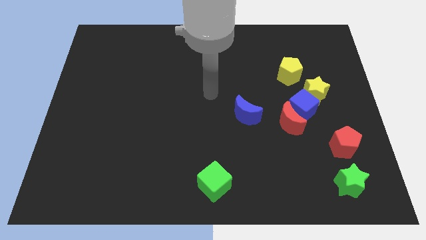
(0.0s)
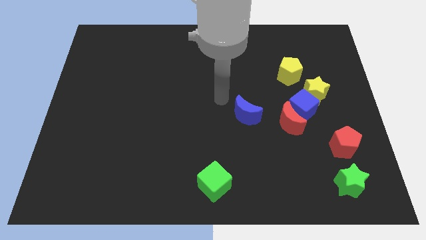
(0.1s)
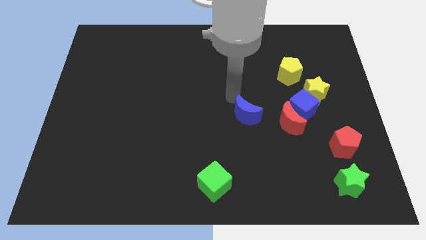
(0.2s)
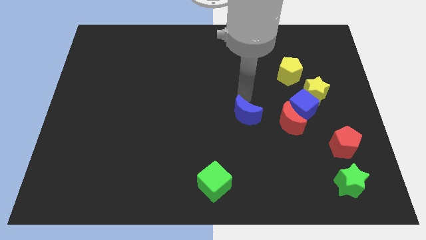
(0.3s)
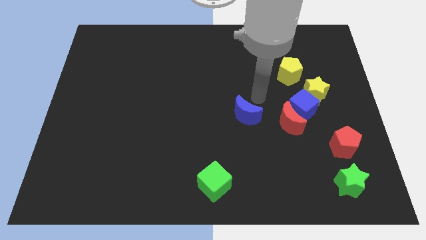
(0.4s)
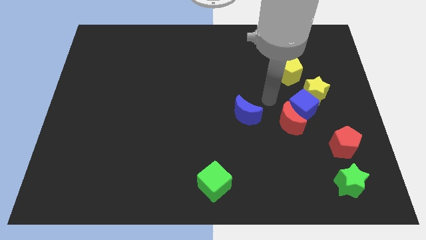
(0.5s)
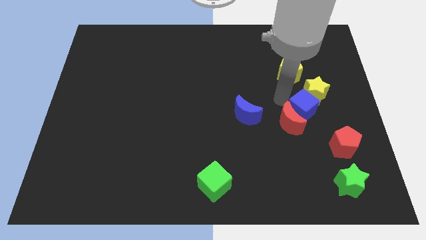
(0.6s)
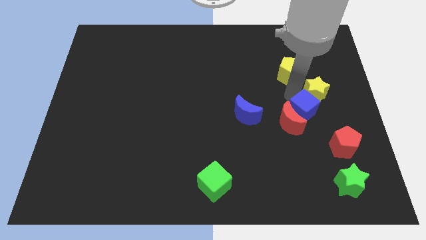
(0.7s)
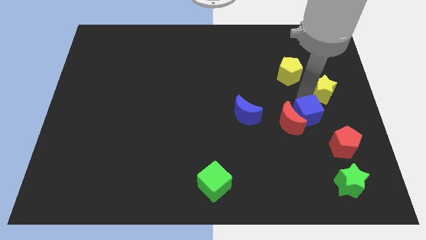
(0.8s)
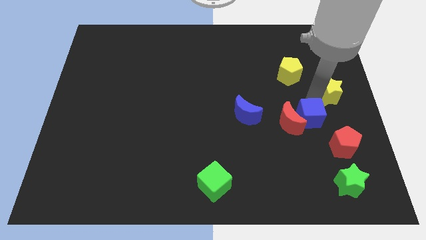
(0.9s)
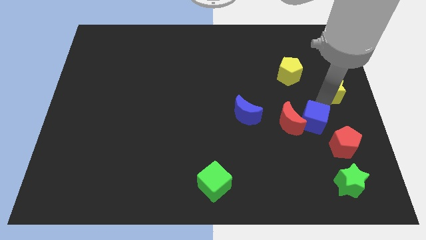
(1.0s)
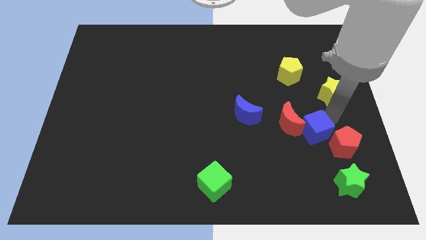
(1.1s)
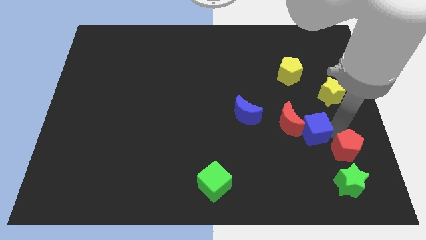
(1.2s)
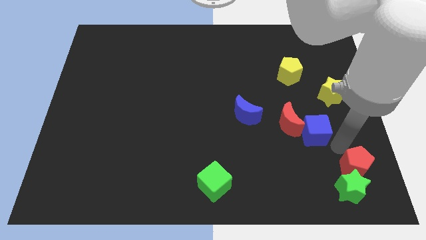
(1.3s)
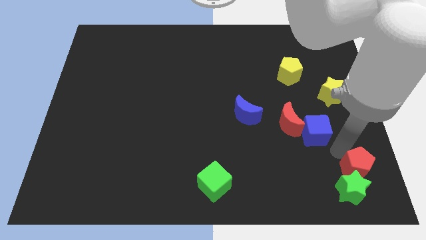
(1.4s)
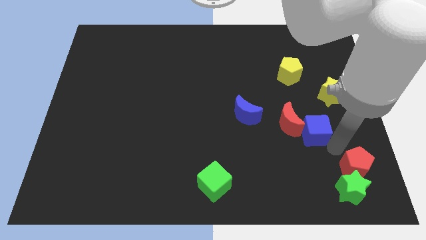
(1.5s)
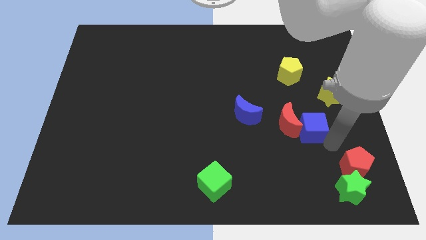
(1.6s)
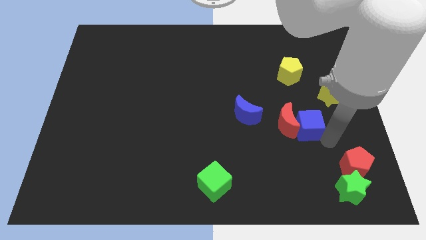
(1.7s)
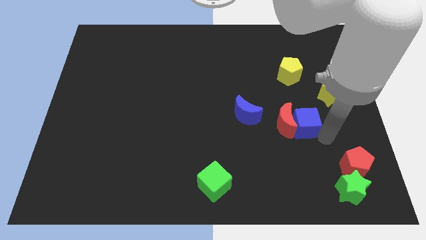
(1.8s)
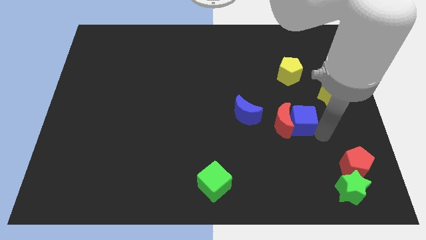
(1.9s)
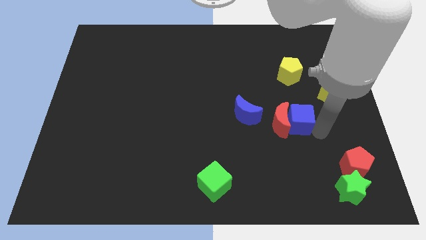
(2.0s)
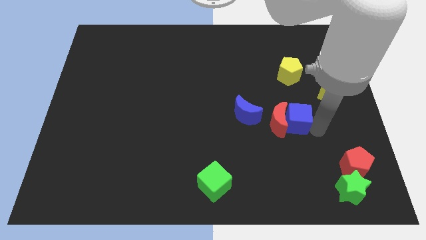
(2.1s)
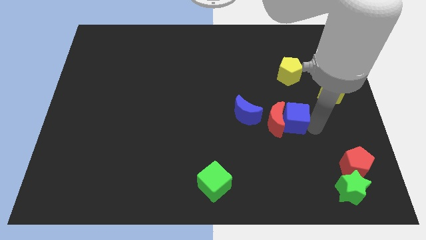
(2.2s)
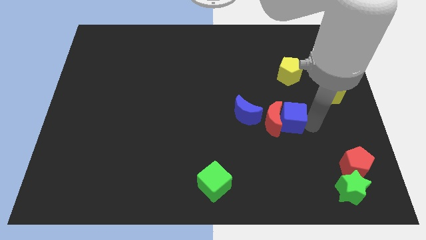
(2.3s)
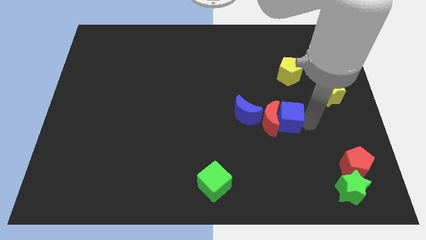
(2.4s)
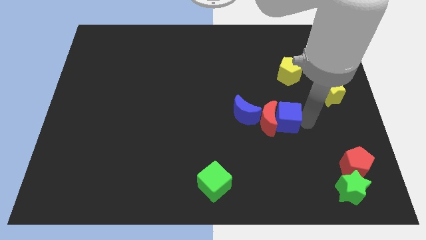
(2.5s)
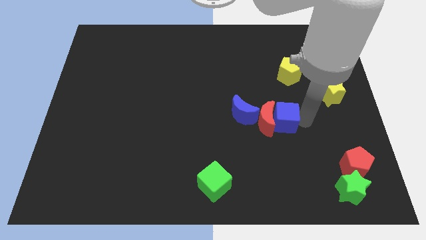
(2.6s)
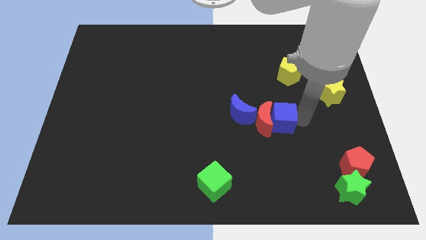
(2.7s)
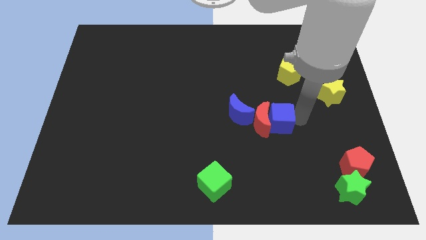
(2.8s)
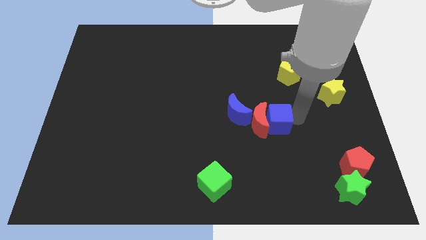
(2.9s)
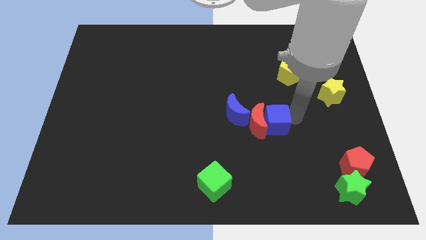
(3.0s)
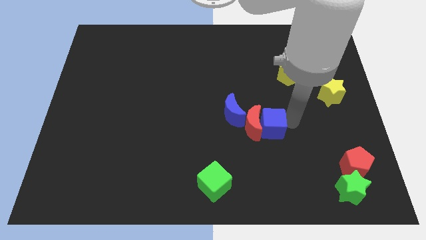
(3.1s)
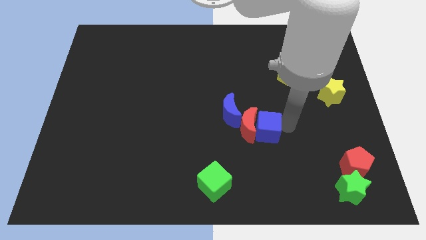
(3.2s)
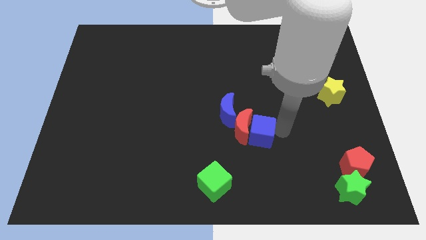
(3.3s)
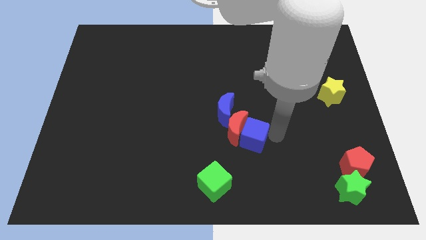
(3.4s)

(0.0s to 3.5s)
move the blue cube away from the red moon and yellow star

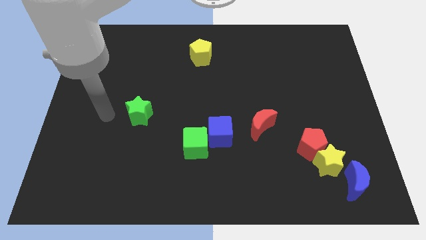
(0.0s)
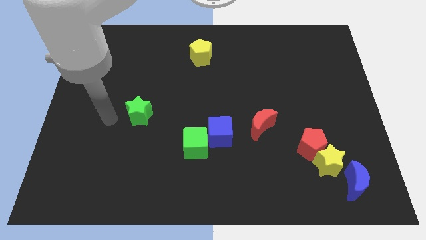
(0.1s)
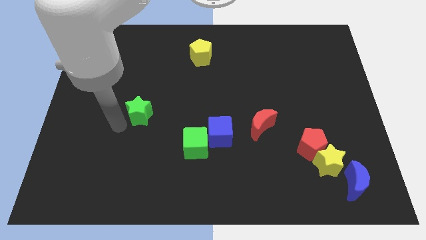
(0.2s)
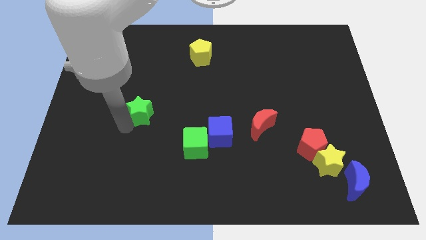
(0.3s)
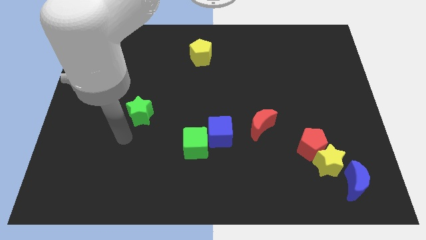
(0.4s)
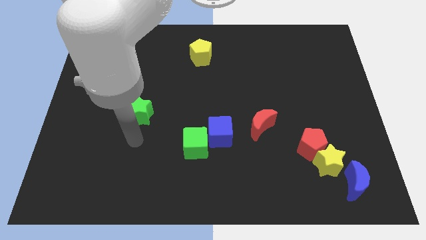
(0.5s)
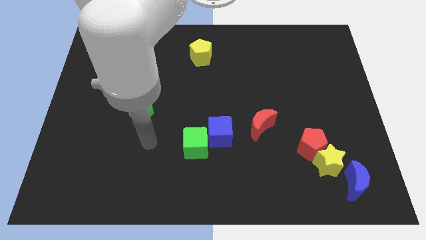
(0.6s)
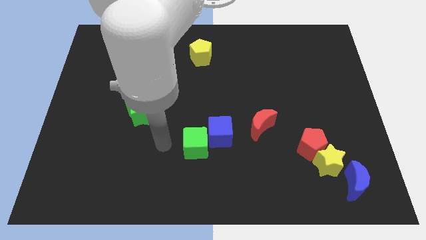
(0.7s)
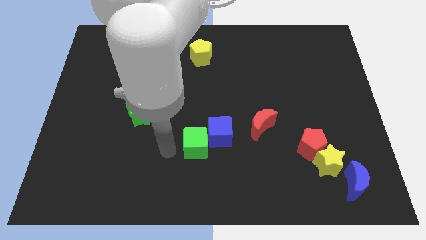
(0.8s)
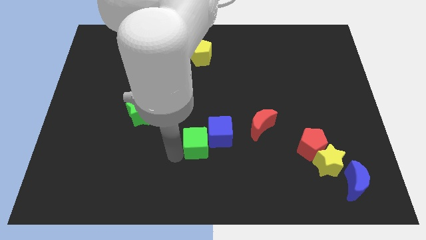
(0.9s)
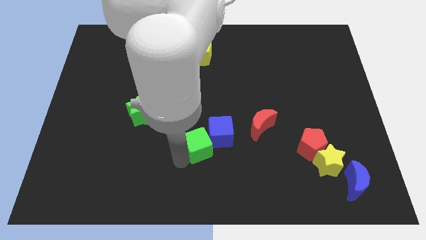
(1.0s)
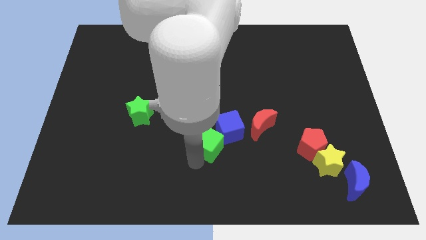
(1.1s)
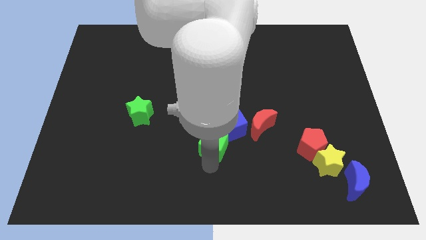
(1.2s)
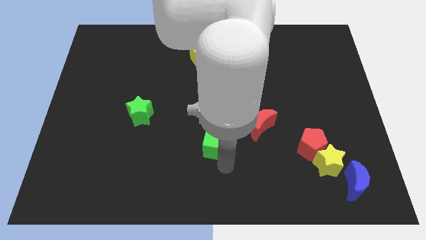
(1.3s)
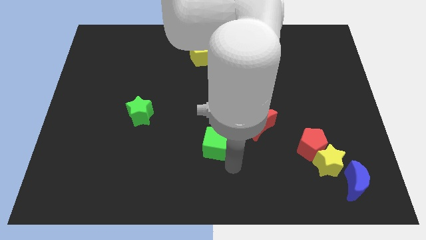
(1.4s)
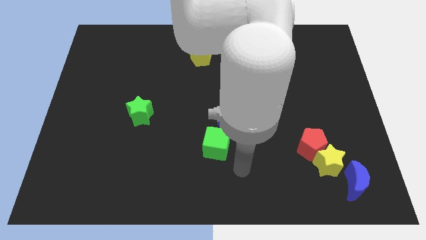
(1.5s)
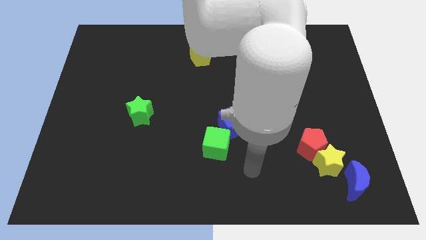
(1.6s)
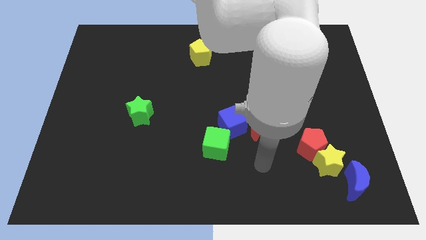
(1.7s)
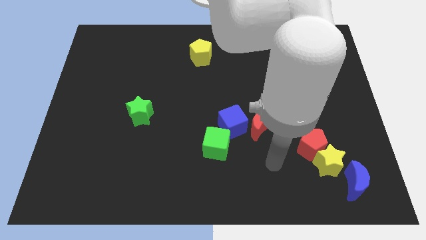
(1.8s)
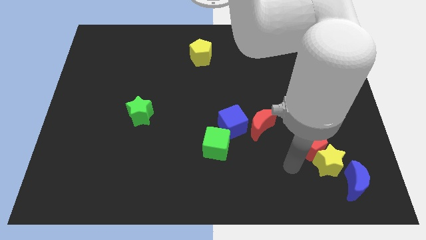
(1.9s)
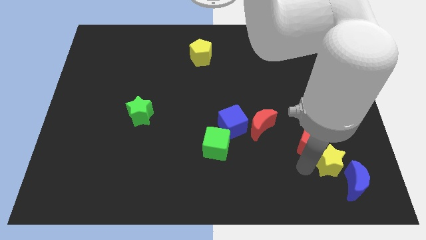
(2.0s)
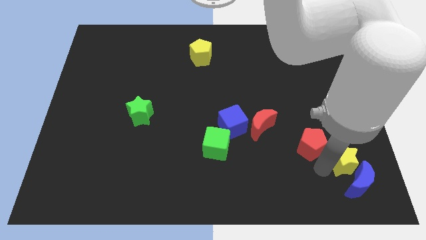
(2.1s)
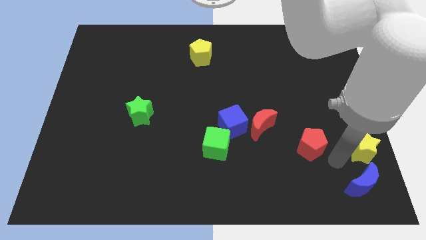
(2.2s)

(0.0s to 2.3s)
separate the red pentagon from the yellow star

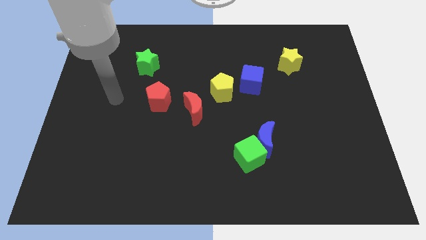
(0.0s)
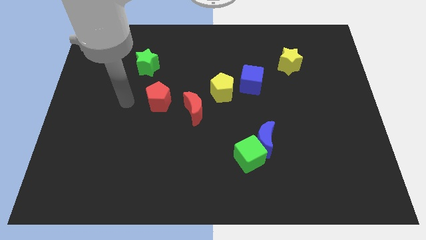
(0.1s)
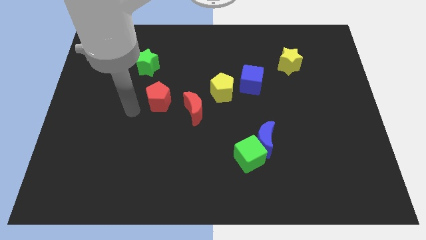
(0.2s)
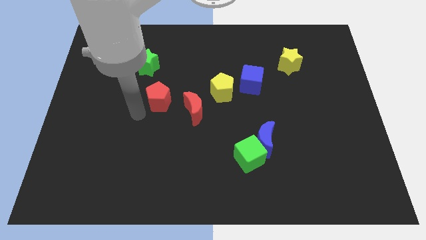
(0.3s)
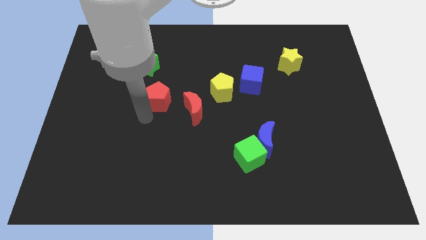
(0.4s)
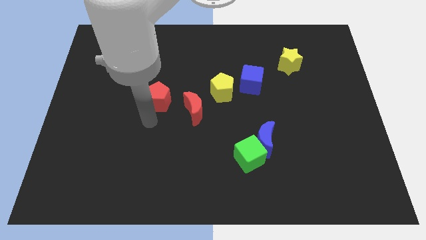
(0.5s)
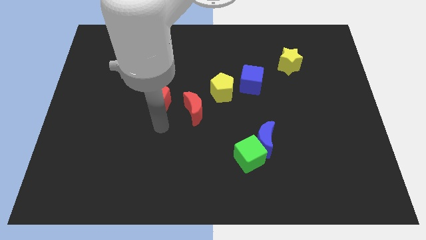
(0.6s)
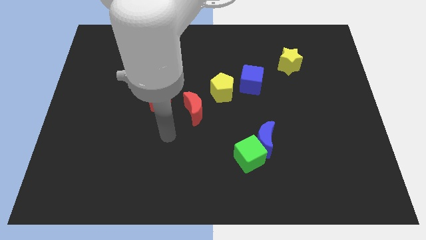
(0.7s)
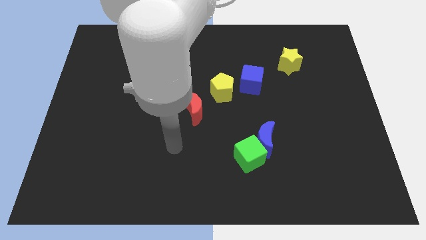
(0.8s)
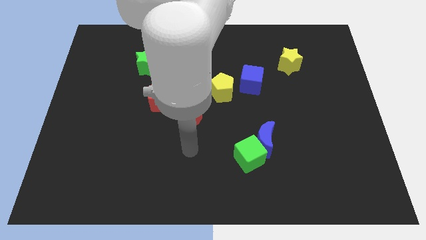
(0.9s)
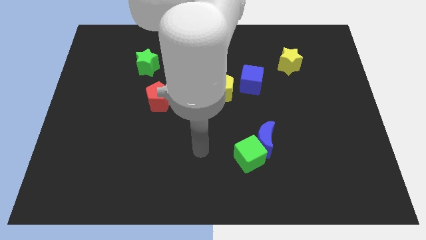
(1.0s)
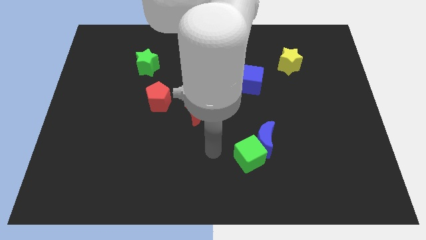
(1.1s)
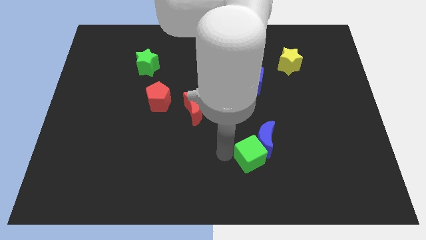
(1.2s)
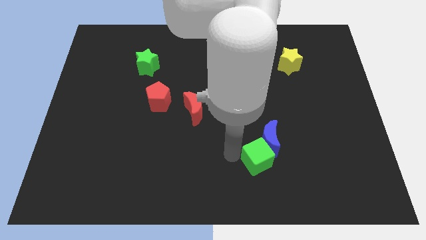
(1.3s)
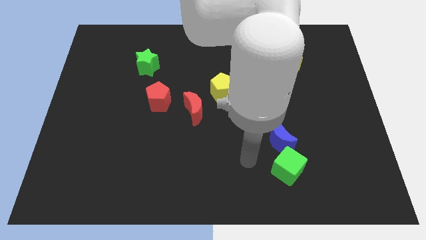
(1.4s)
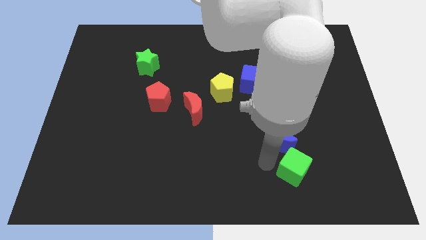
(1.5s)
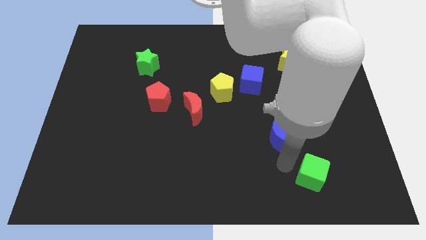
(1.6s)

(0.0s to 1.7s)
separate the blue moon from the green cube

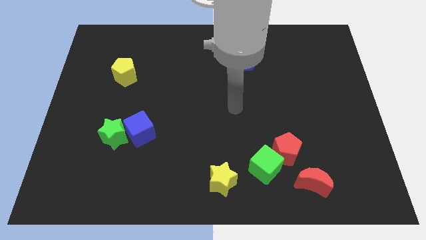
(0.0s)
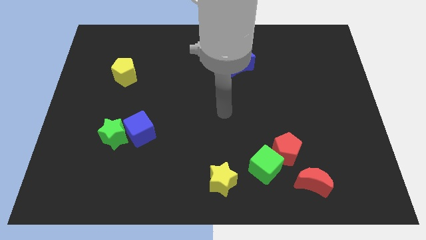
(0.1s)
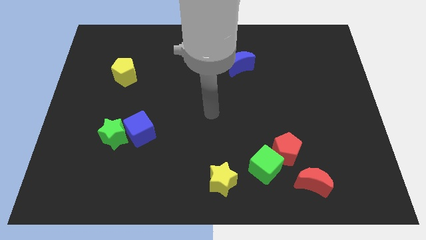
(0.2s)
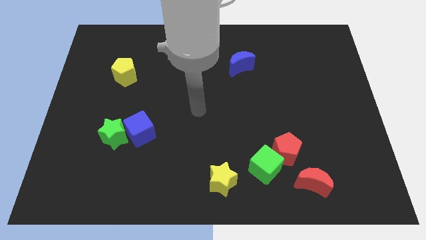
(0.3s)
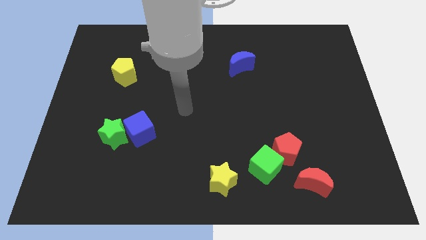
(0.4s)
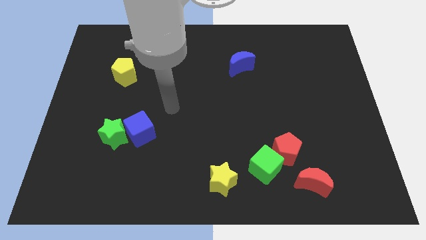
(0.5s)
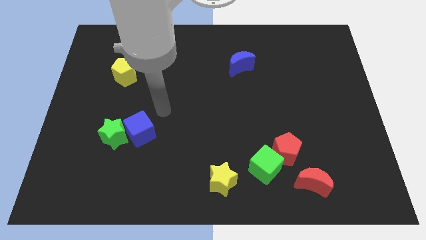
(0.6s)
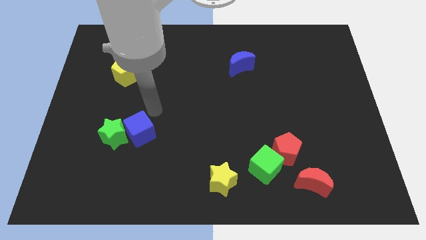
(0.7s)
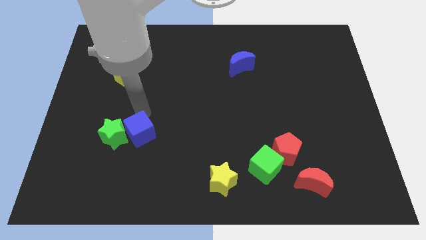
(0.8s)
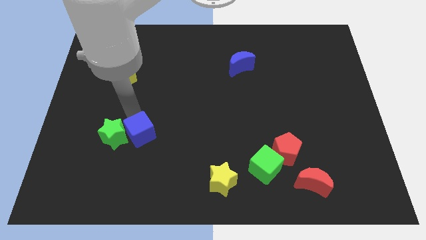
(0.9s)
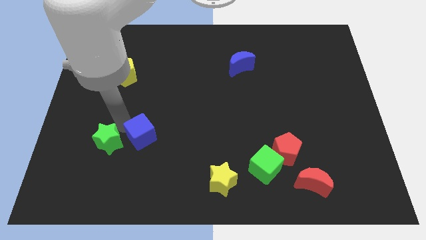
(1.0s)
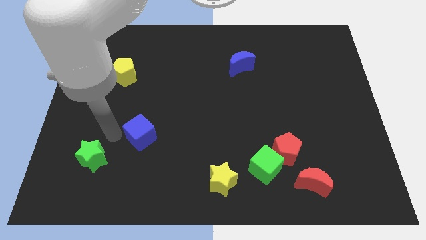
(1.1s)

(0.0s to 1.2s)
separate the blue cube from the green star

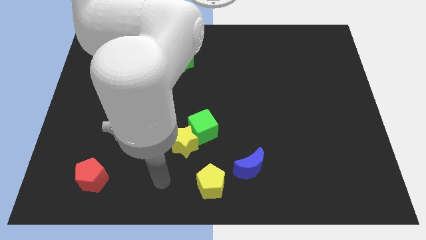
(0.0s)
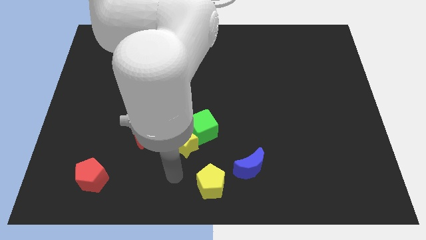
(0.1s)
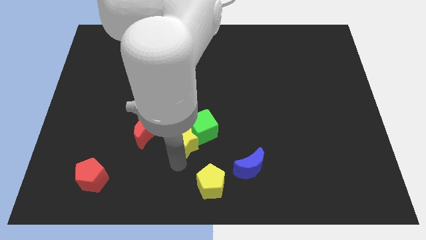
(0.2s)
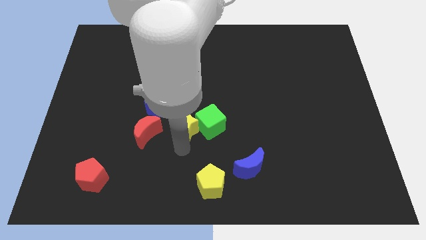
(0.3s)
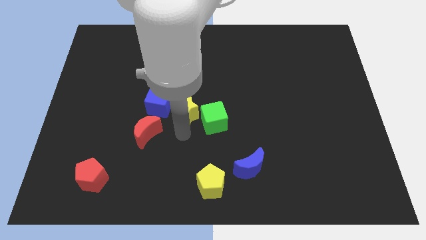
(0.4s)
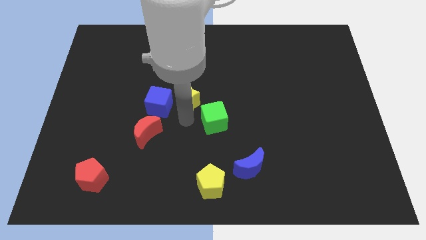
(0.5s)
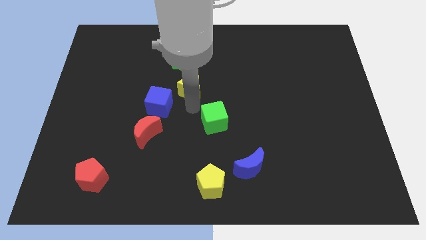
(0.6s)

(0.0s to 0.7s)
pull the green cube apart from the yellow star
